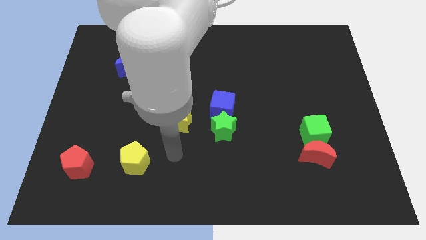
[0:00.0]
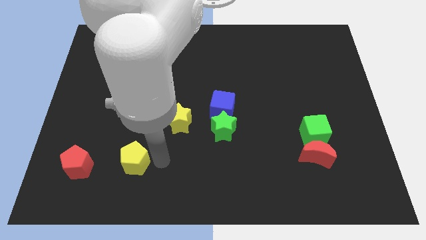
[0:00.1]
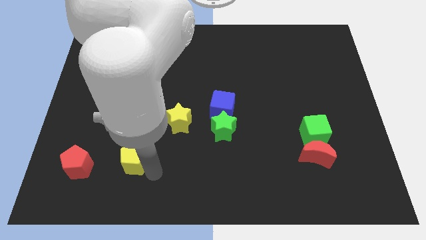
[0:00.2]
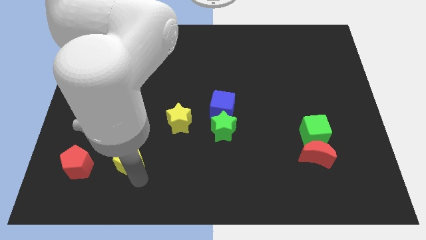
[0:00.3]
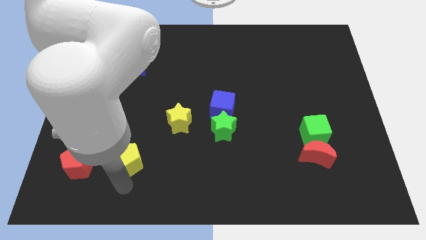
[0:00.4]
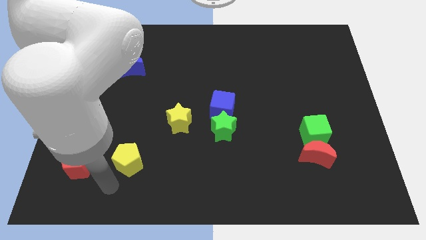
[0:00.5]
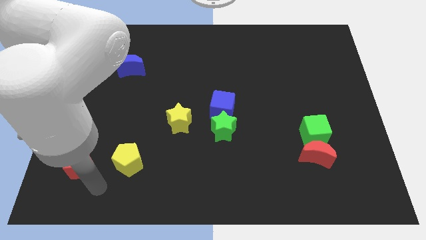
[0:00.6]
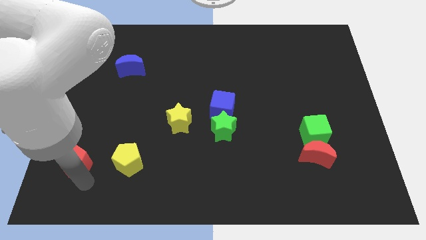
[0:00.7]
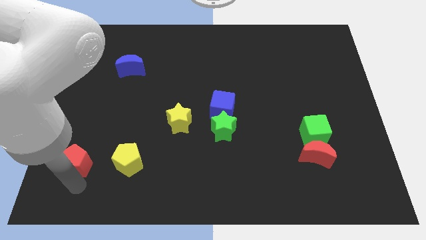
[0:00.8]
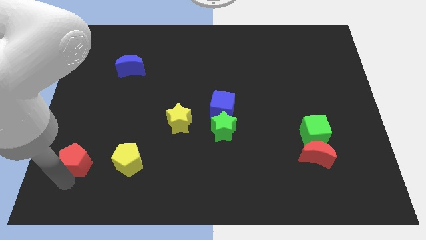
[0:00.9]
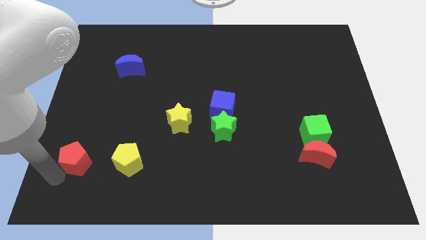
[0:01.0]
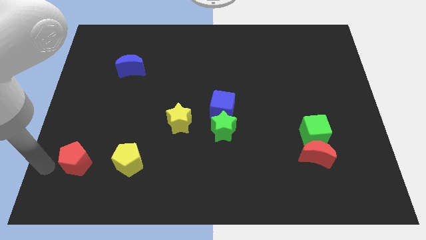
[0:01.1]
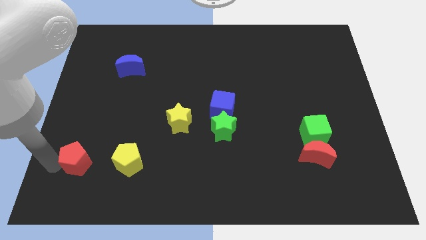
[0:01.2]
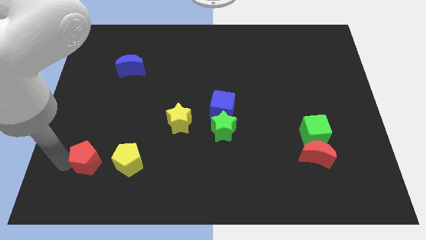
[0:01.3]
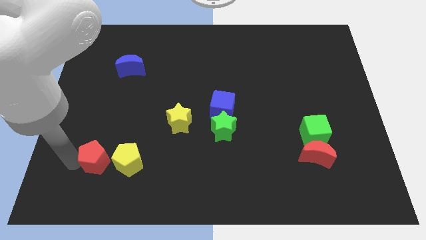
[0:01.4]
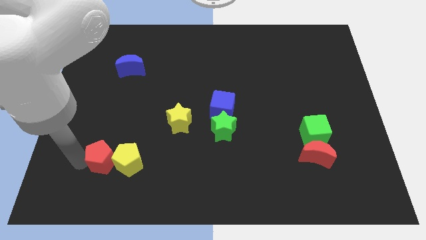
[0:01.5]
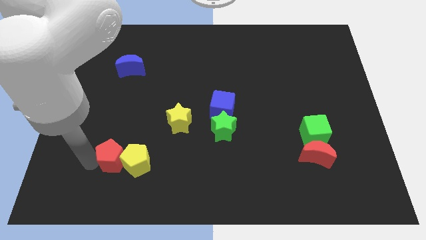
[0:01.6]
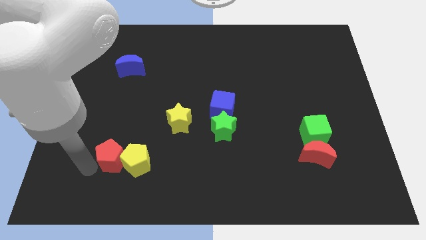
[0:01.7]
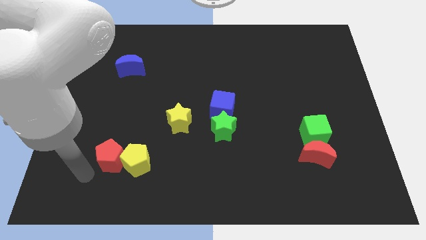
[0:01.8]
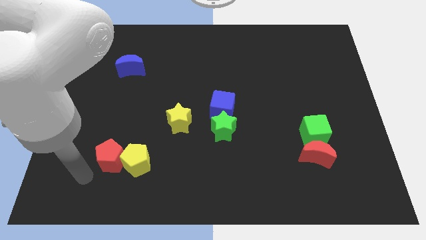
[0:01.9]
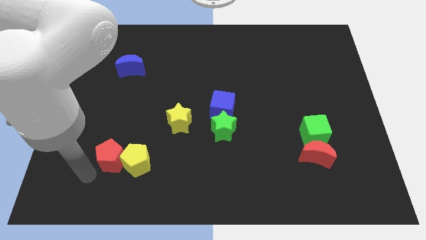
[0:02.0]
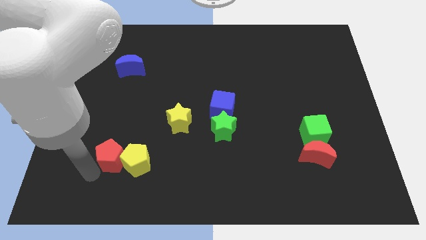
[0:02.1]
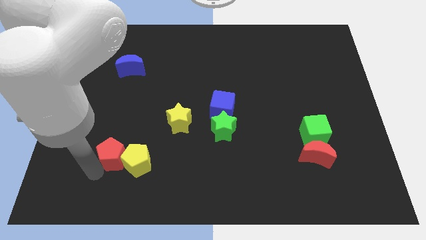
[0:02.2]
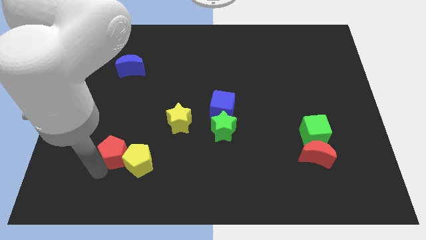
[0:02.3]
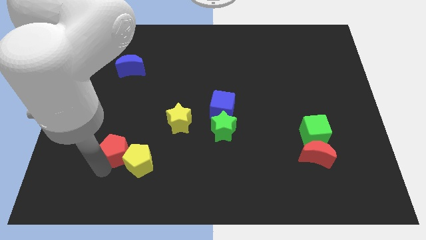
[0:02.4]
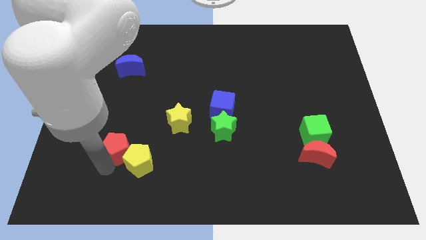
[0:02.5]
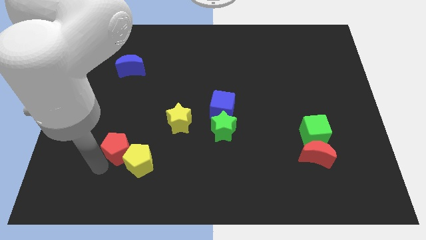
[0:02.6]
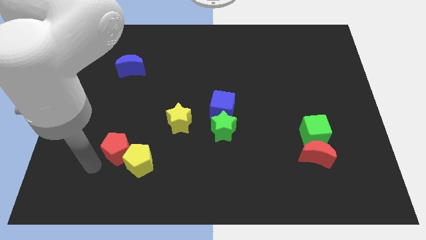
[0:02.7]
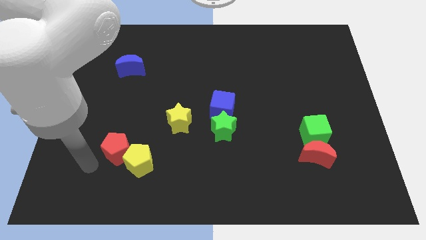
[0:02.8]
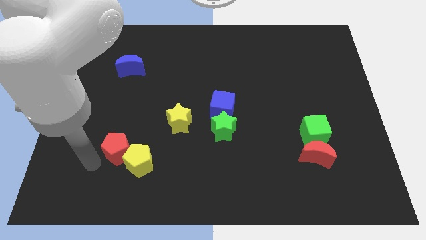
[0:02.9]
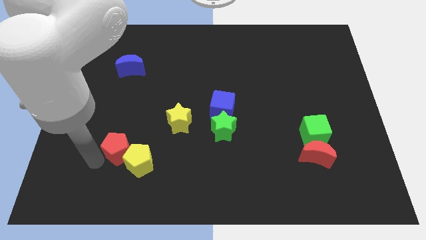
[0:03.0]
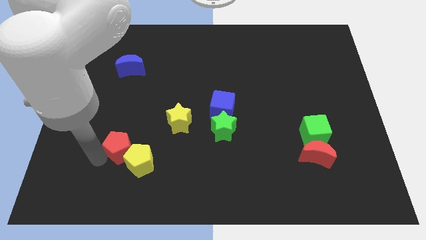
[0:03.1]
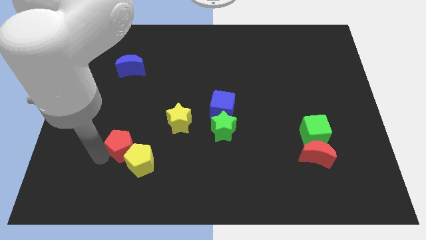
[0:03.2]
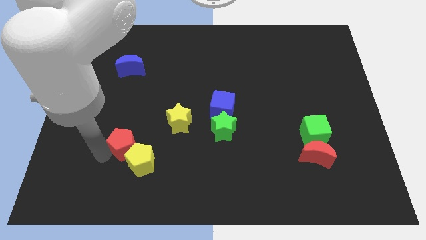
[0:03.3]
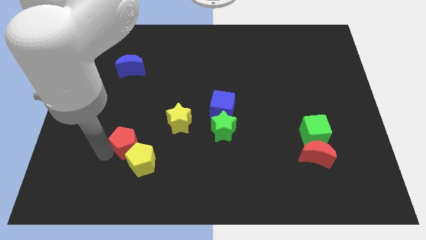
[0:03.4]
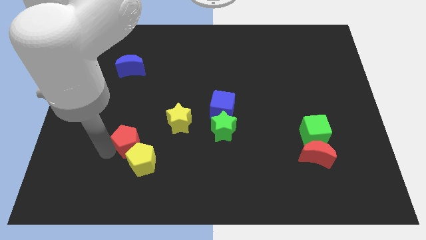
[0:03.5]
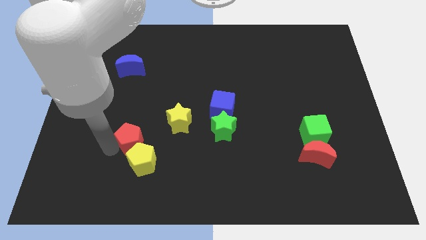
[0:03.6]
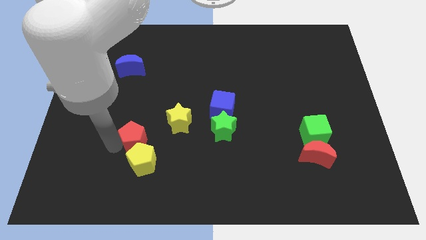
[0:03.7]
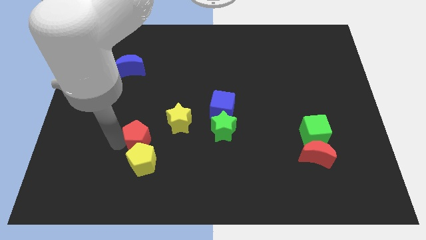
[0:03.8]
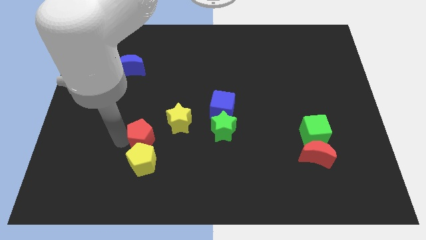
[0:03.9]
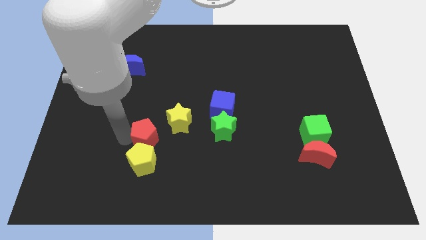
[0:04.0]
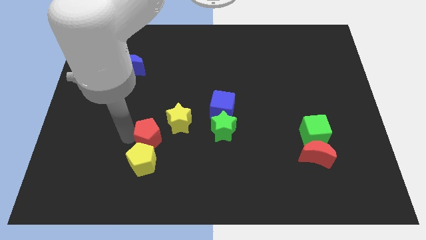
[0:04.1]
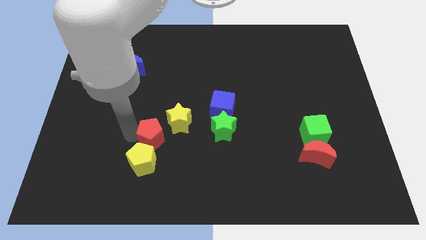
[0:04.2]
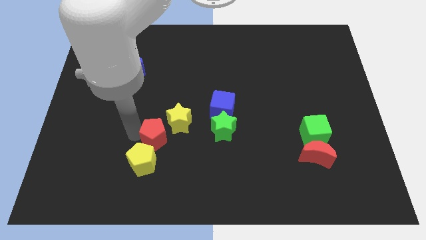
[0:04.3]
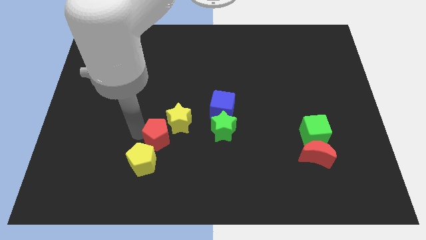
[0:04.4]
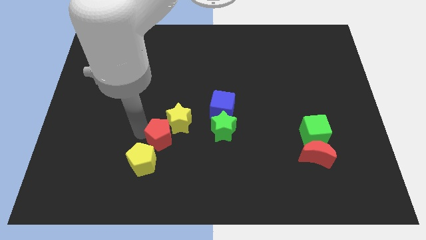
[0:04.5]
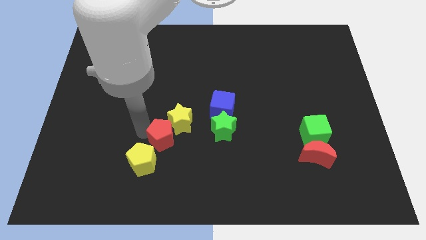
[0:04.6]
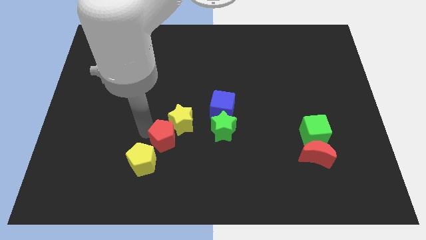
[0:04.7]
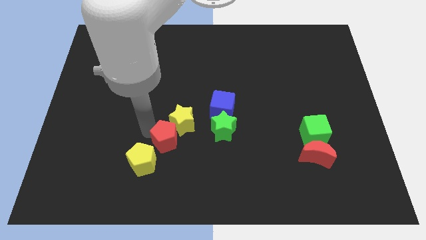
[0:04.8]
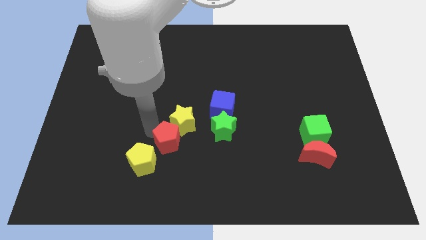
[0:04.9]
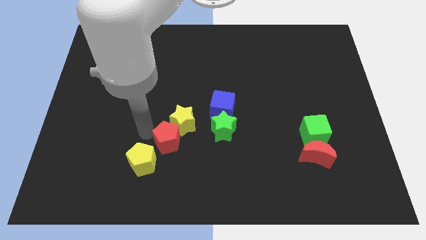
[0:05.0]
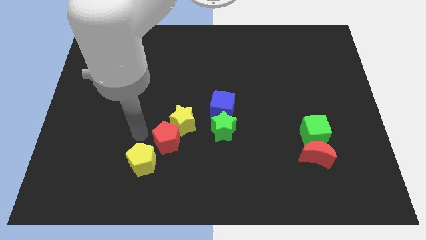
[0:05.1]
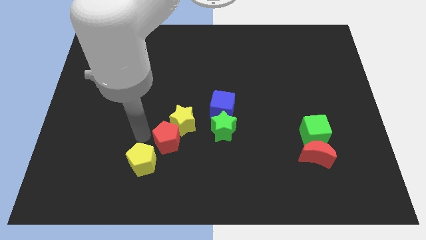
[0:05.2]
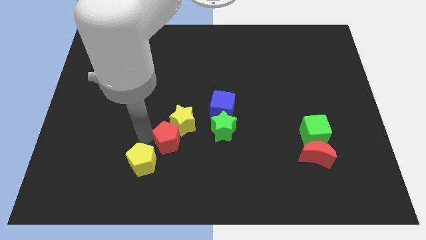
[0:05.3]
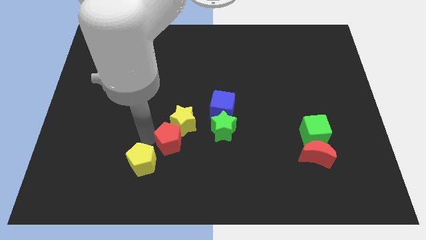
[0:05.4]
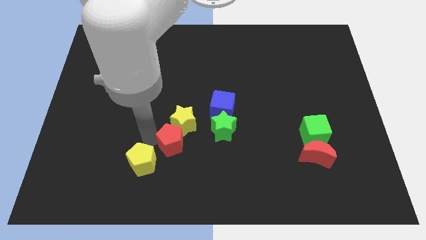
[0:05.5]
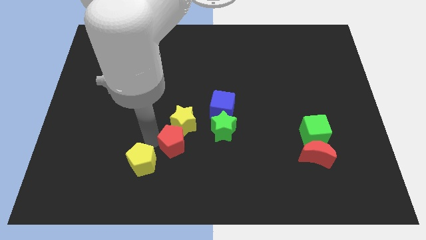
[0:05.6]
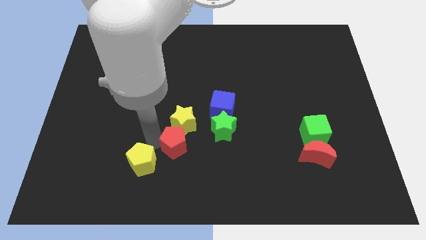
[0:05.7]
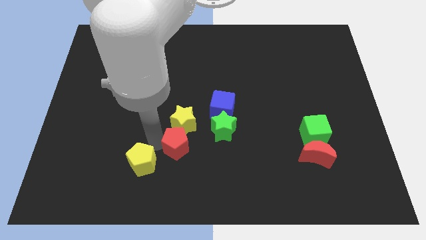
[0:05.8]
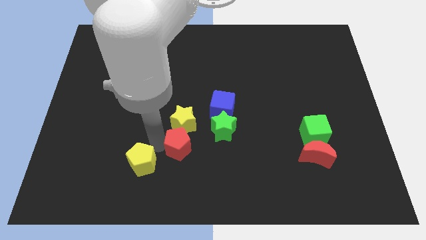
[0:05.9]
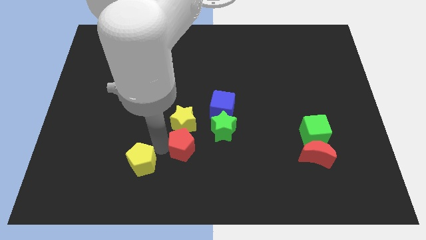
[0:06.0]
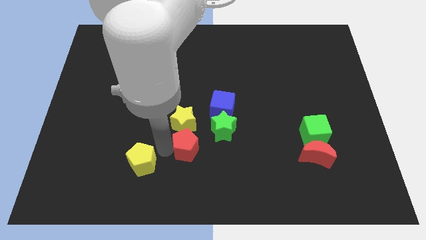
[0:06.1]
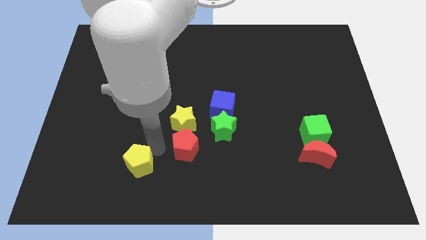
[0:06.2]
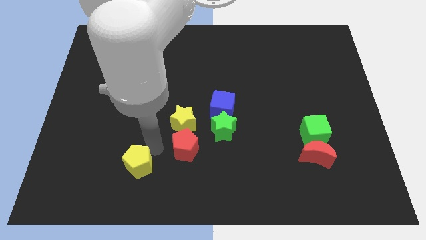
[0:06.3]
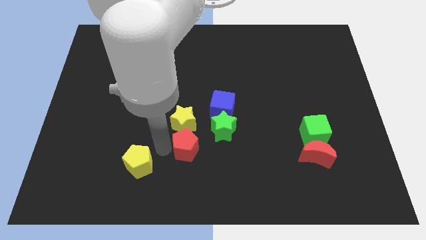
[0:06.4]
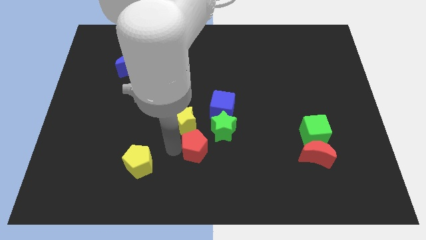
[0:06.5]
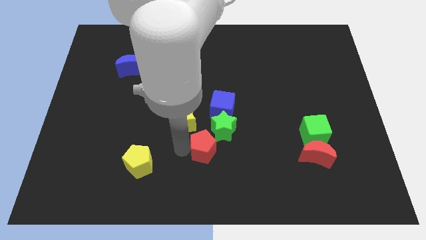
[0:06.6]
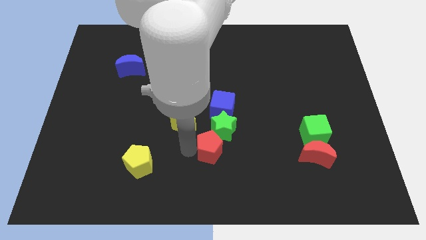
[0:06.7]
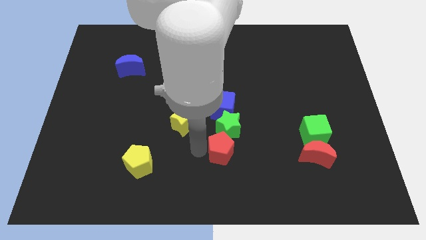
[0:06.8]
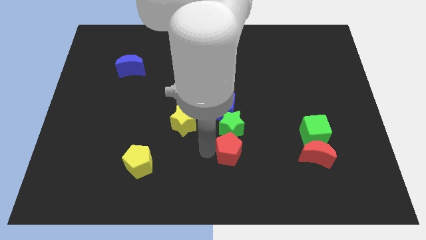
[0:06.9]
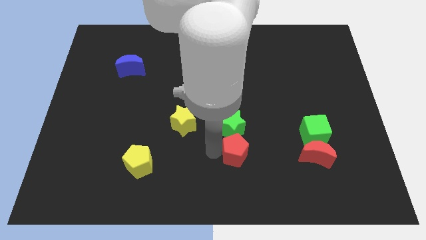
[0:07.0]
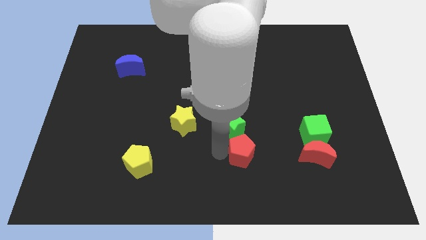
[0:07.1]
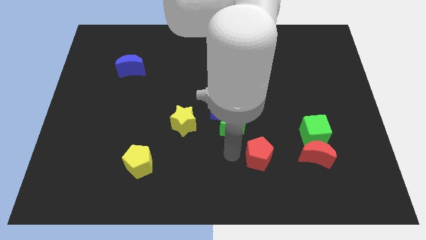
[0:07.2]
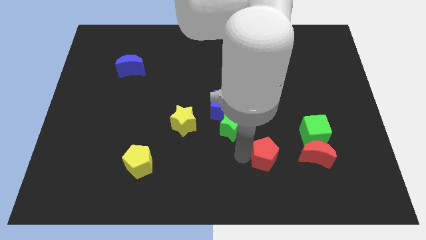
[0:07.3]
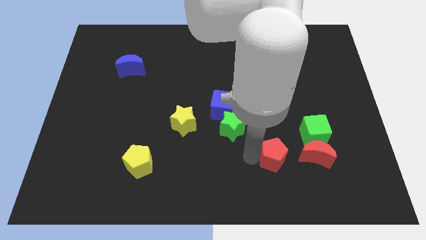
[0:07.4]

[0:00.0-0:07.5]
push the red pentagon to the bottom left of the green cube
